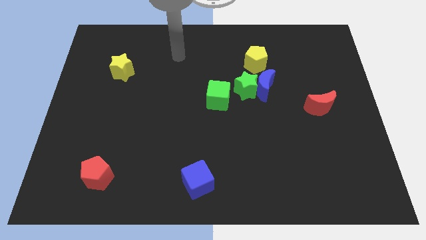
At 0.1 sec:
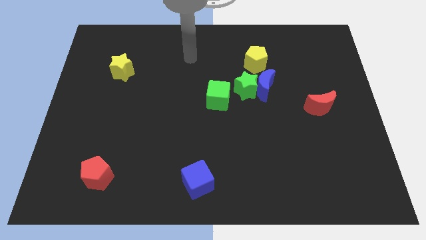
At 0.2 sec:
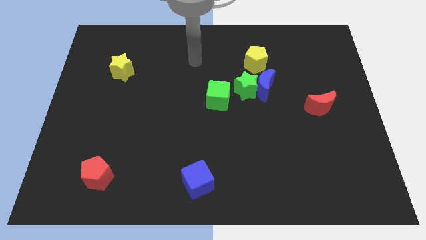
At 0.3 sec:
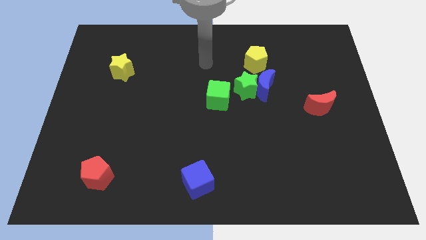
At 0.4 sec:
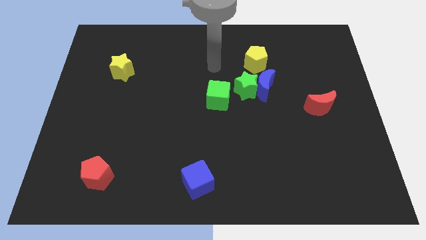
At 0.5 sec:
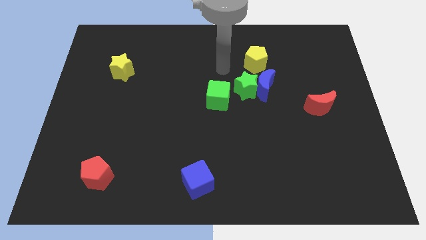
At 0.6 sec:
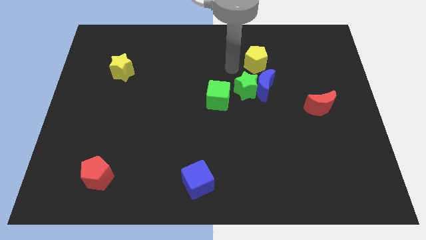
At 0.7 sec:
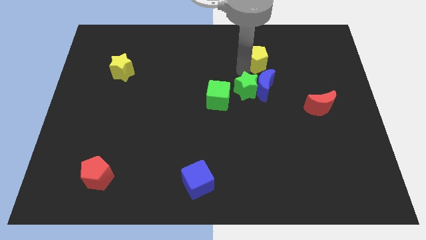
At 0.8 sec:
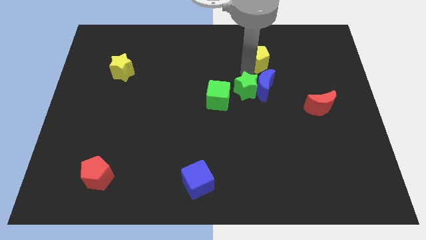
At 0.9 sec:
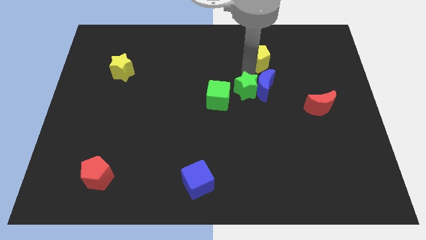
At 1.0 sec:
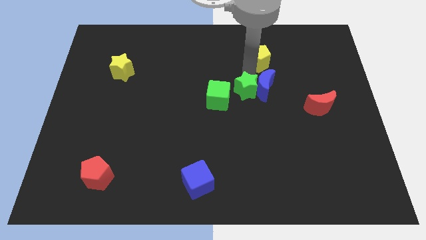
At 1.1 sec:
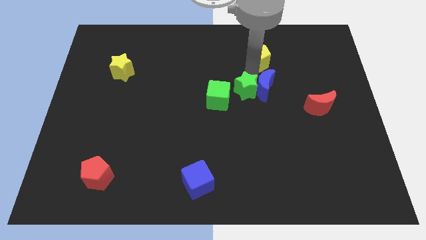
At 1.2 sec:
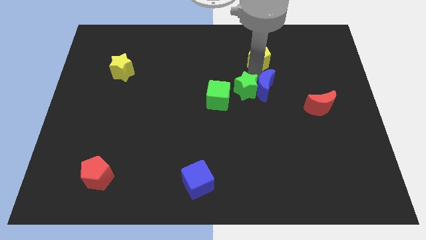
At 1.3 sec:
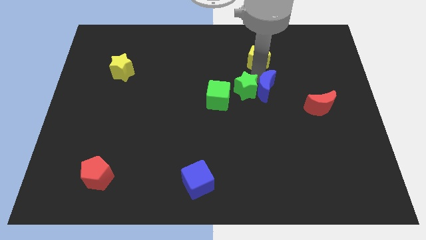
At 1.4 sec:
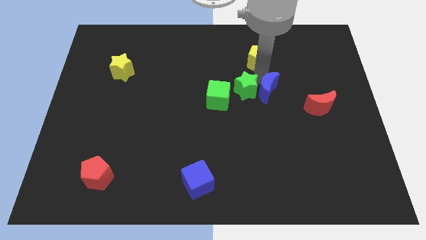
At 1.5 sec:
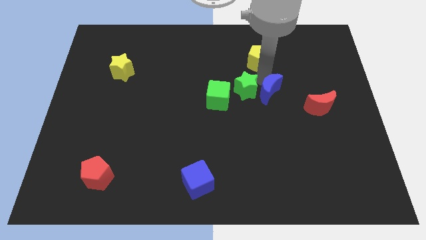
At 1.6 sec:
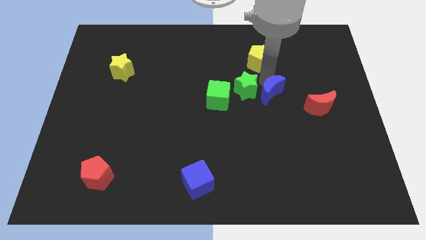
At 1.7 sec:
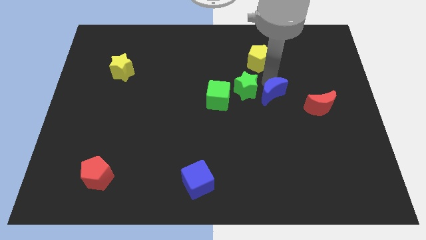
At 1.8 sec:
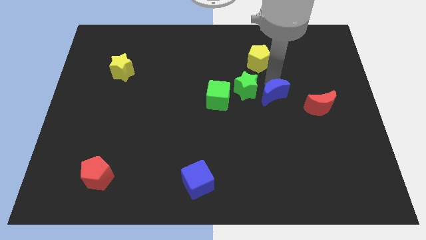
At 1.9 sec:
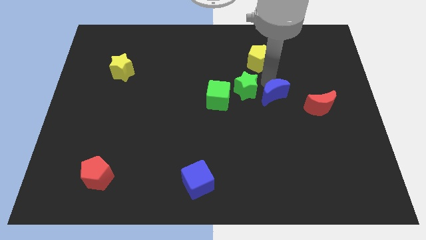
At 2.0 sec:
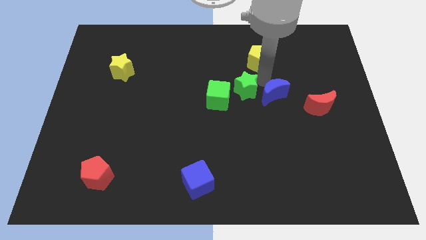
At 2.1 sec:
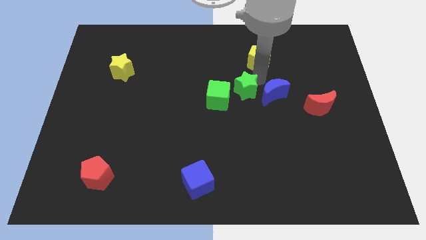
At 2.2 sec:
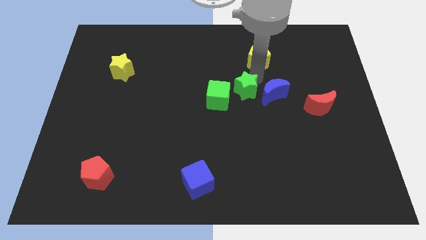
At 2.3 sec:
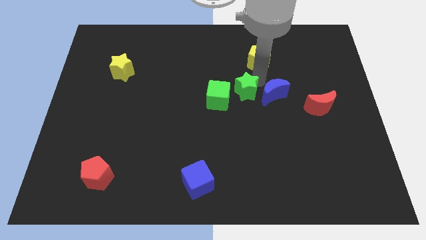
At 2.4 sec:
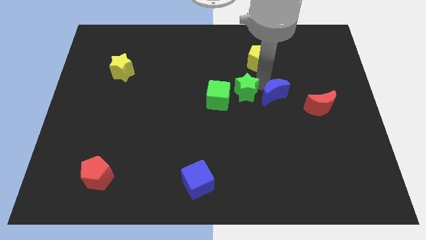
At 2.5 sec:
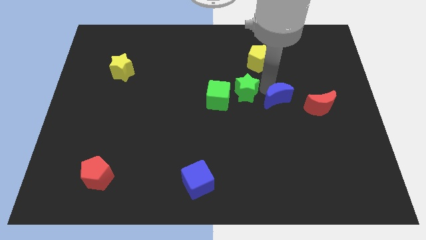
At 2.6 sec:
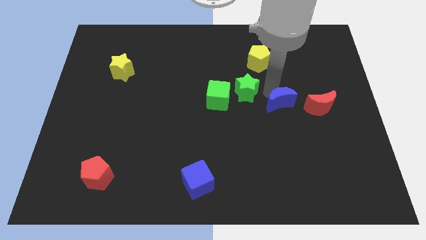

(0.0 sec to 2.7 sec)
separate the blue moon from the green star and yellow pentagon

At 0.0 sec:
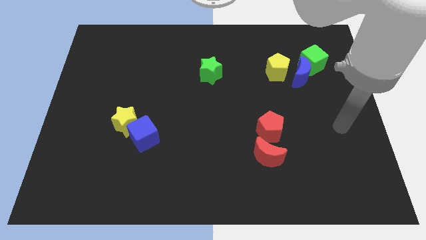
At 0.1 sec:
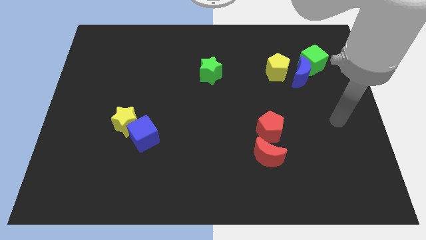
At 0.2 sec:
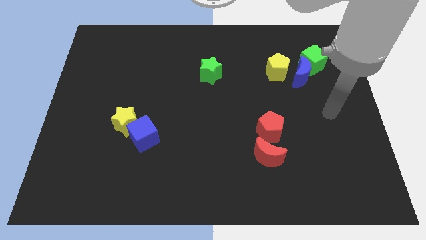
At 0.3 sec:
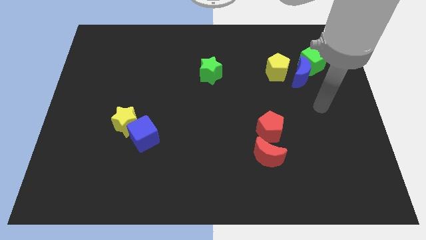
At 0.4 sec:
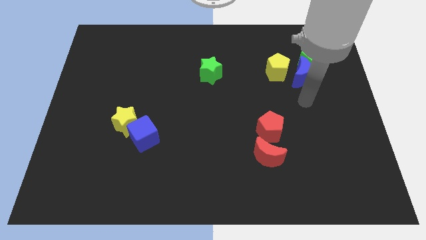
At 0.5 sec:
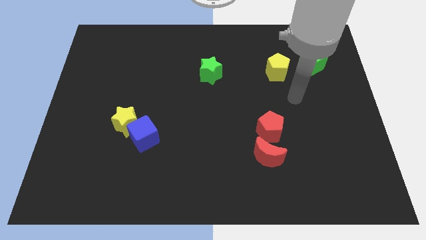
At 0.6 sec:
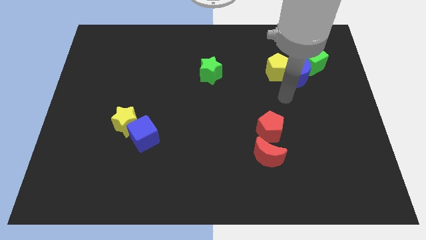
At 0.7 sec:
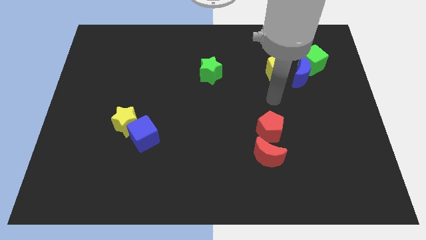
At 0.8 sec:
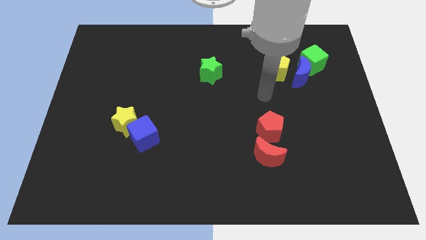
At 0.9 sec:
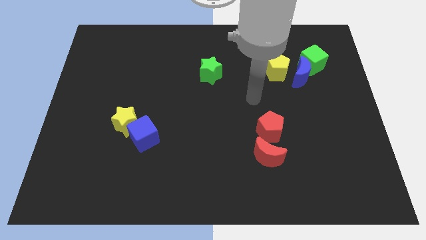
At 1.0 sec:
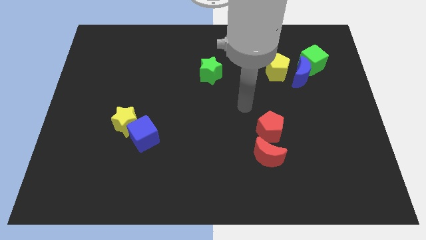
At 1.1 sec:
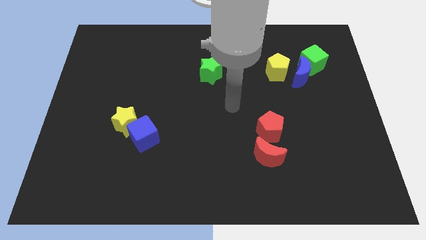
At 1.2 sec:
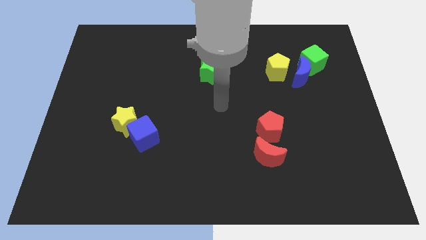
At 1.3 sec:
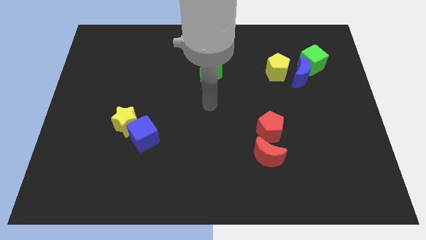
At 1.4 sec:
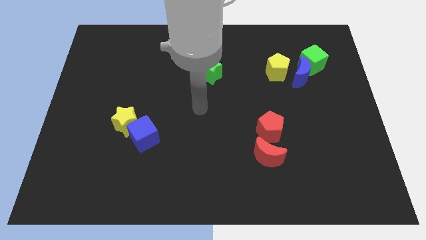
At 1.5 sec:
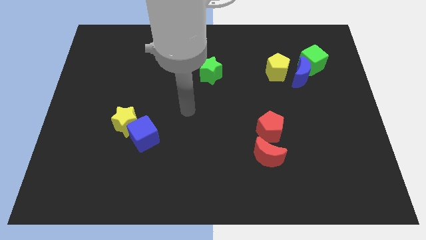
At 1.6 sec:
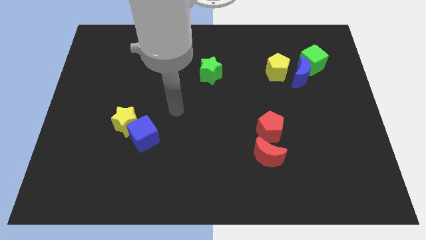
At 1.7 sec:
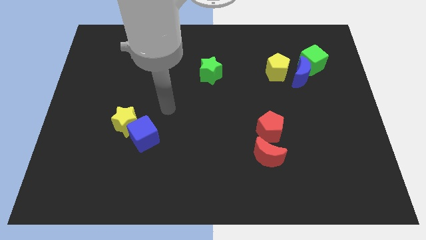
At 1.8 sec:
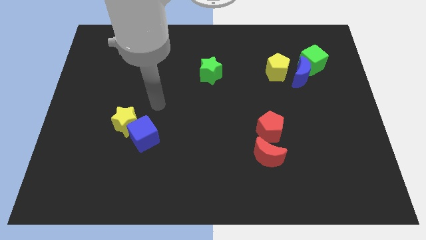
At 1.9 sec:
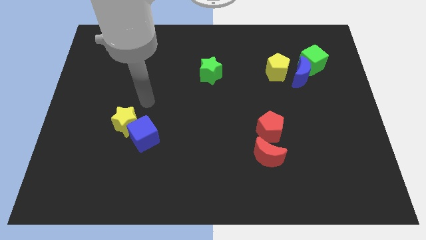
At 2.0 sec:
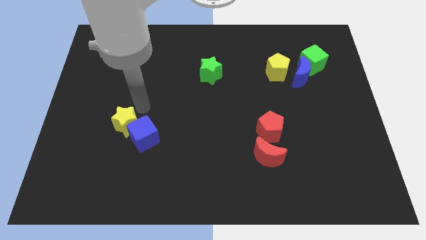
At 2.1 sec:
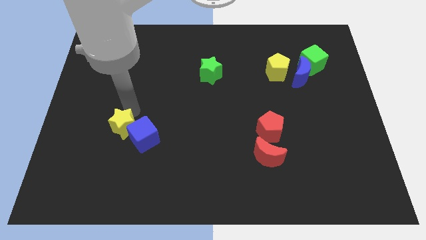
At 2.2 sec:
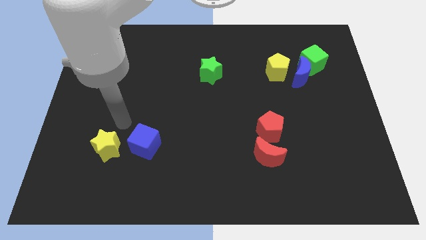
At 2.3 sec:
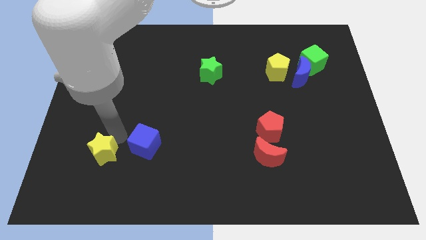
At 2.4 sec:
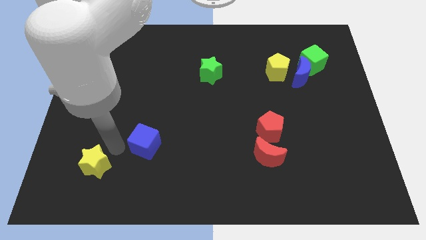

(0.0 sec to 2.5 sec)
move the blue cube away from the yellow star

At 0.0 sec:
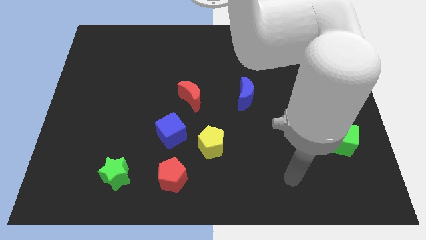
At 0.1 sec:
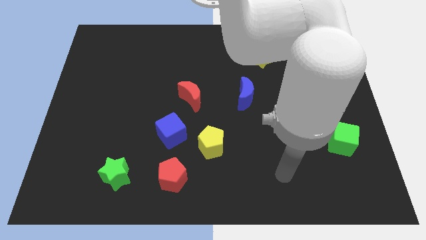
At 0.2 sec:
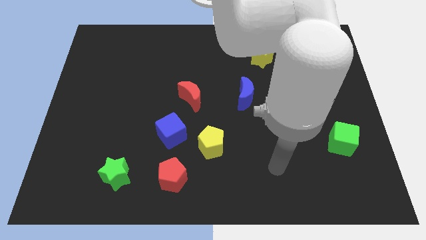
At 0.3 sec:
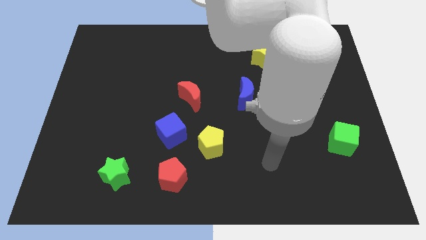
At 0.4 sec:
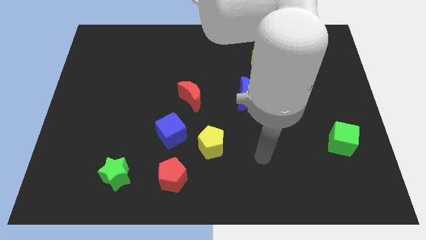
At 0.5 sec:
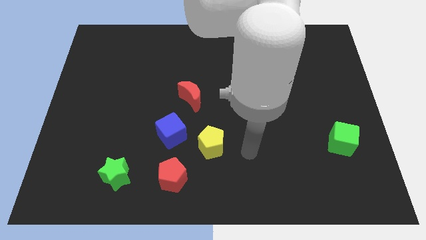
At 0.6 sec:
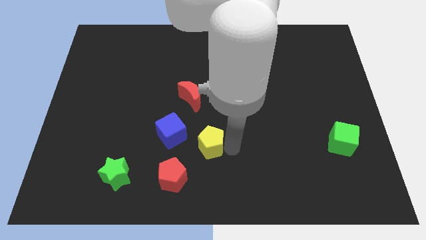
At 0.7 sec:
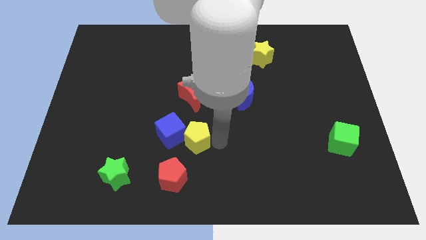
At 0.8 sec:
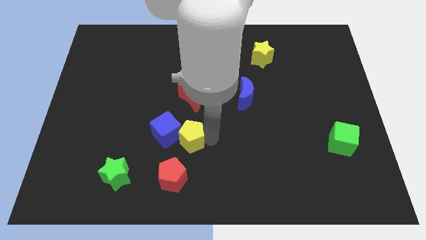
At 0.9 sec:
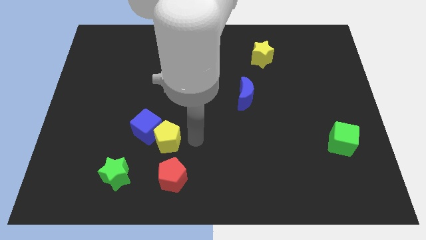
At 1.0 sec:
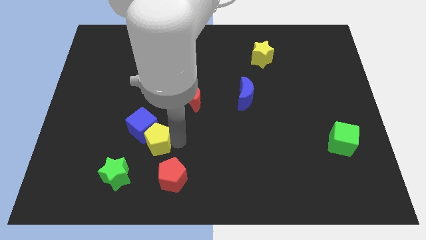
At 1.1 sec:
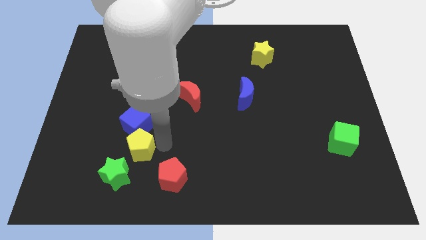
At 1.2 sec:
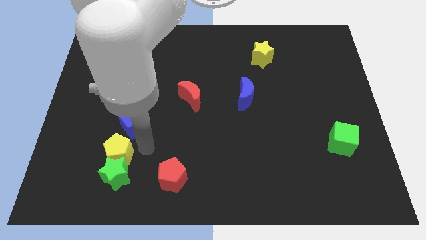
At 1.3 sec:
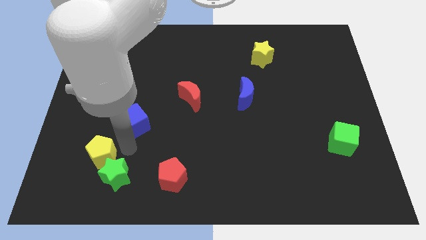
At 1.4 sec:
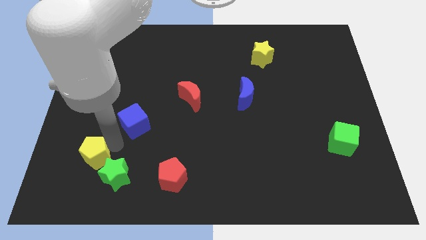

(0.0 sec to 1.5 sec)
move the blue cube away from the yellow pentagon

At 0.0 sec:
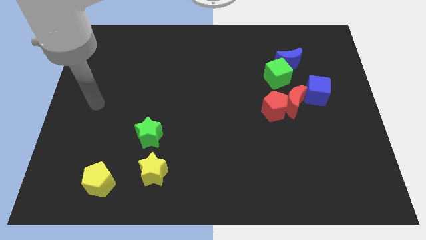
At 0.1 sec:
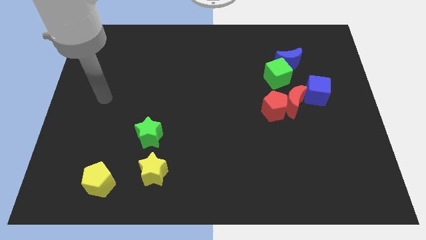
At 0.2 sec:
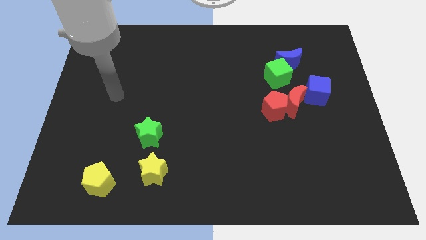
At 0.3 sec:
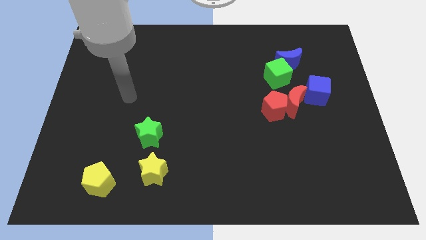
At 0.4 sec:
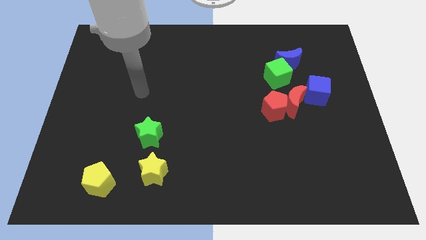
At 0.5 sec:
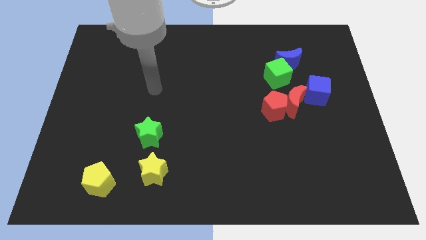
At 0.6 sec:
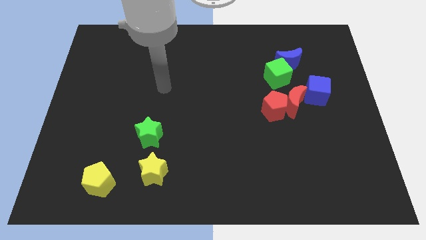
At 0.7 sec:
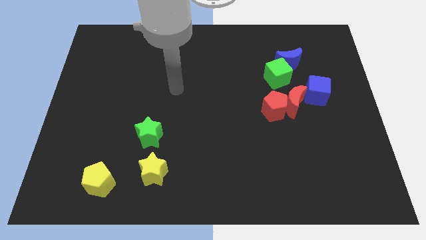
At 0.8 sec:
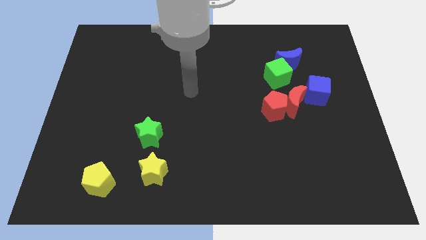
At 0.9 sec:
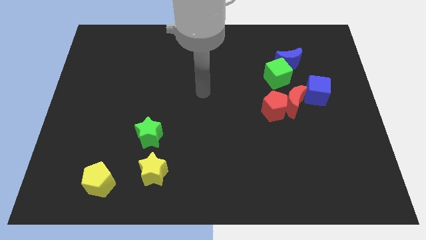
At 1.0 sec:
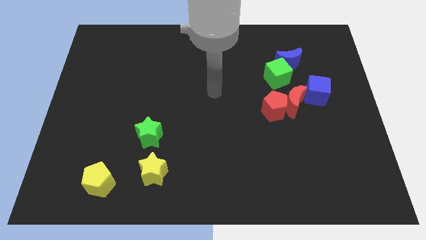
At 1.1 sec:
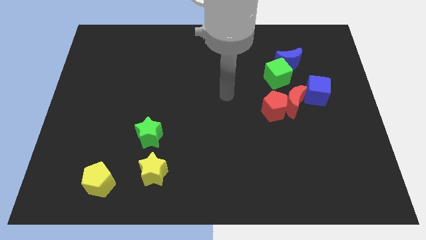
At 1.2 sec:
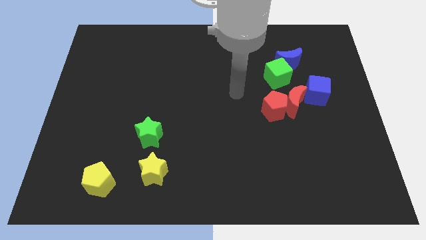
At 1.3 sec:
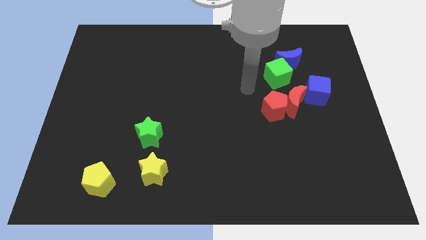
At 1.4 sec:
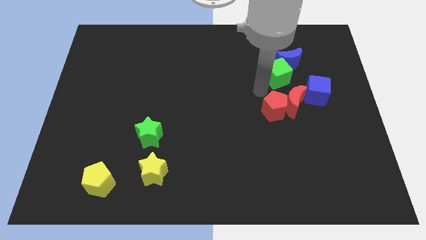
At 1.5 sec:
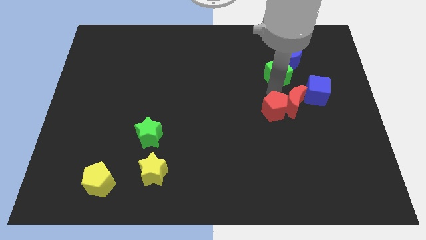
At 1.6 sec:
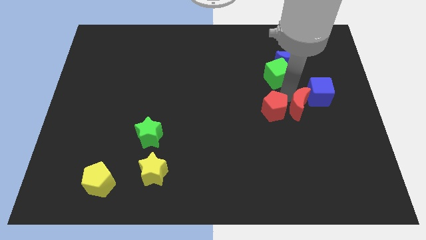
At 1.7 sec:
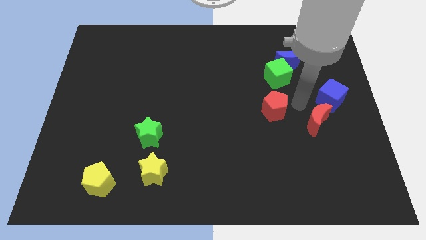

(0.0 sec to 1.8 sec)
separate the red pentagon from the red moon

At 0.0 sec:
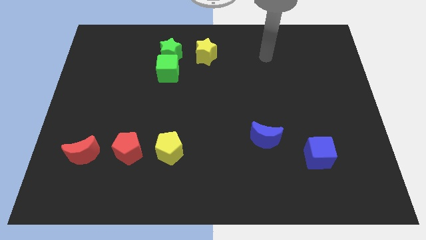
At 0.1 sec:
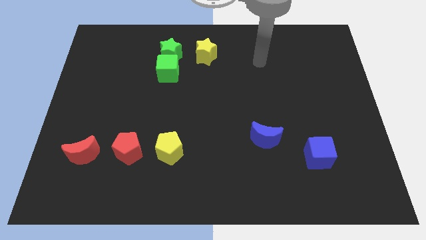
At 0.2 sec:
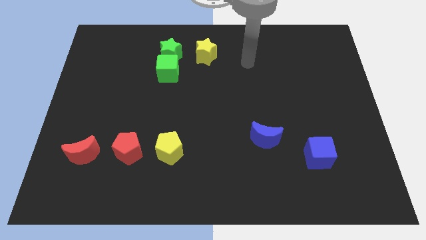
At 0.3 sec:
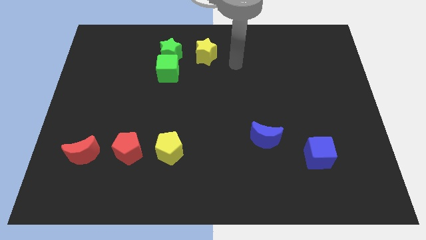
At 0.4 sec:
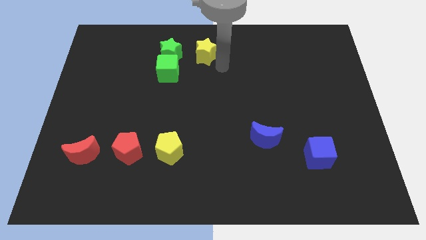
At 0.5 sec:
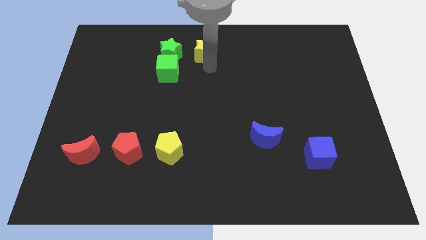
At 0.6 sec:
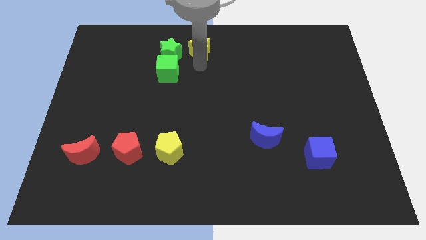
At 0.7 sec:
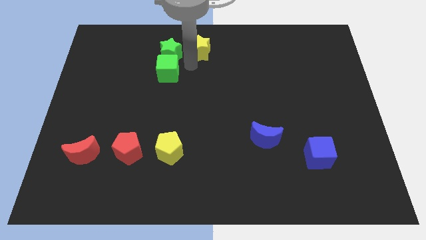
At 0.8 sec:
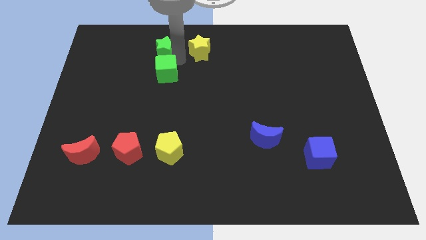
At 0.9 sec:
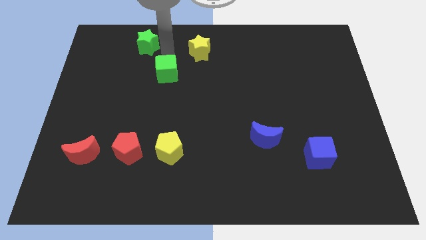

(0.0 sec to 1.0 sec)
separate the green cube from the green star
